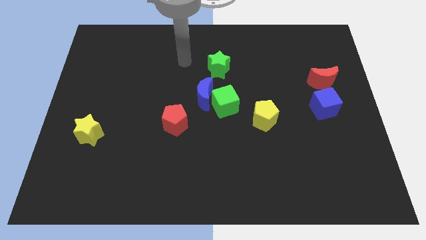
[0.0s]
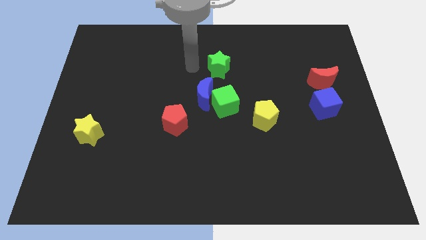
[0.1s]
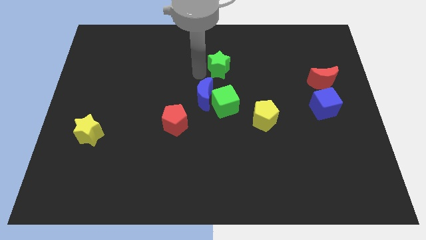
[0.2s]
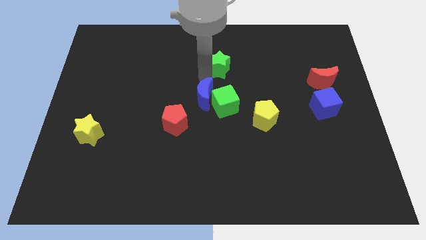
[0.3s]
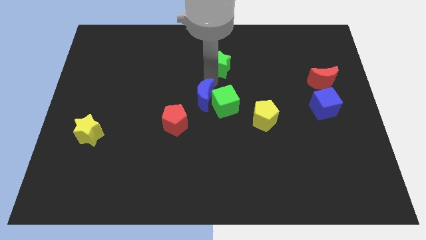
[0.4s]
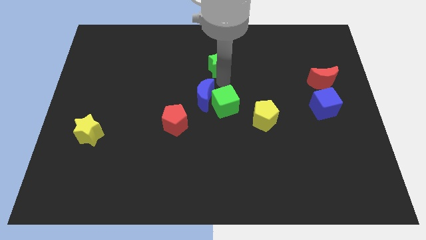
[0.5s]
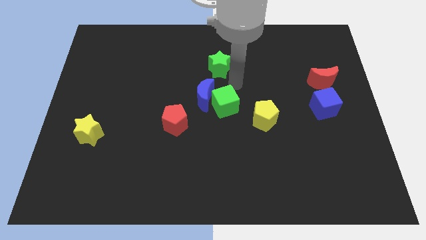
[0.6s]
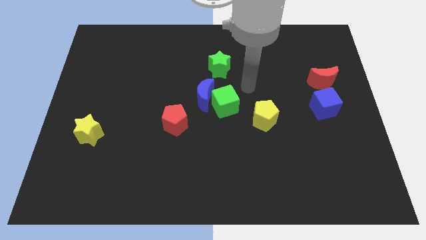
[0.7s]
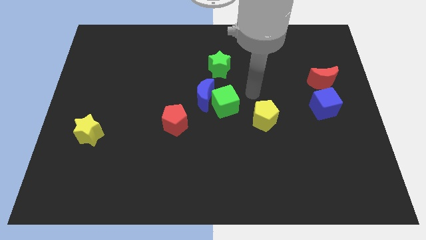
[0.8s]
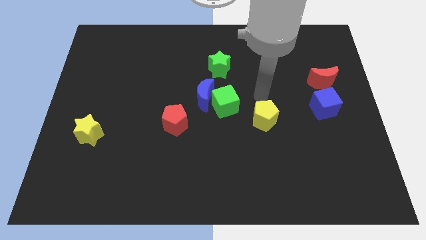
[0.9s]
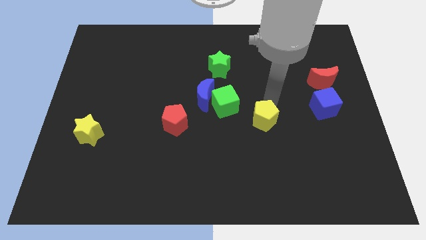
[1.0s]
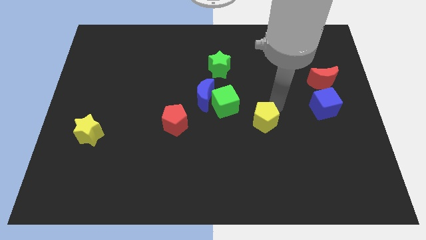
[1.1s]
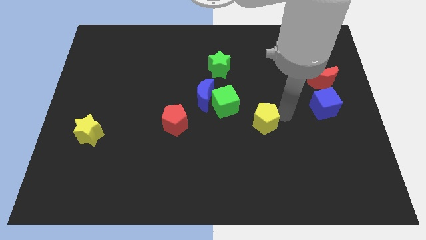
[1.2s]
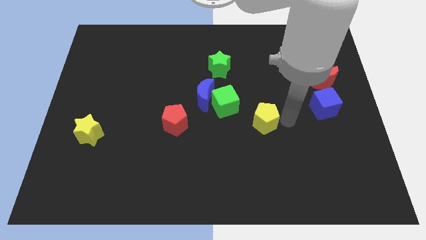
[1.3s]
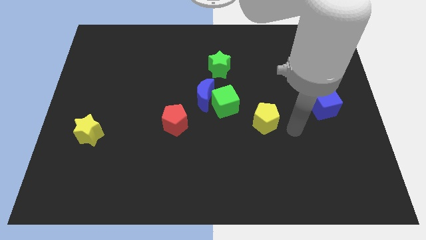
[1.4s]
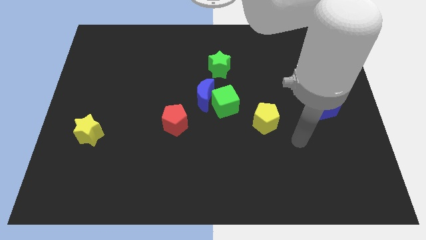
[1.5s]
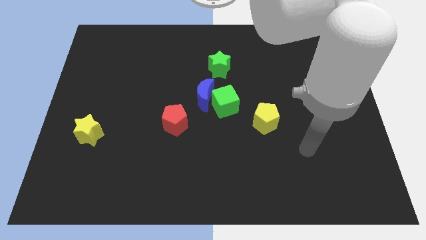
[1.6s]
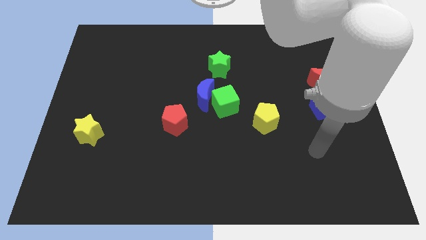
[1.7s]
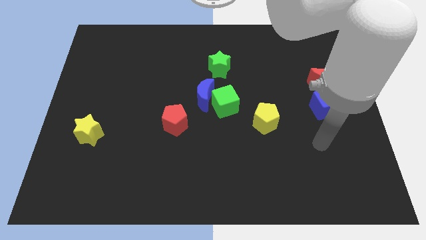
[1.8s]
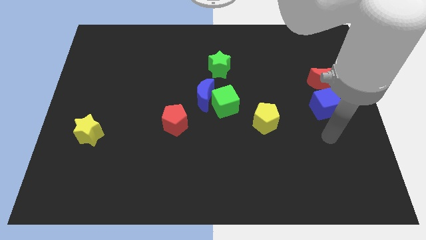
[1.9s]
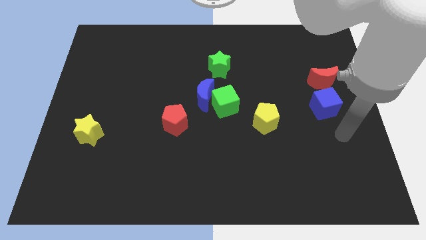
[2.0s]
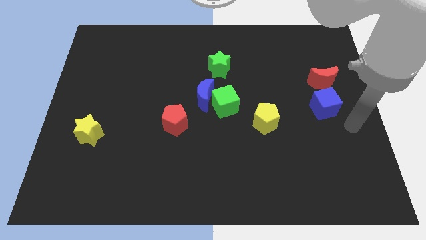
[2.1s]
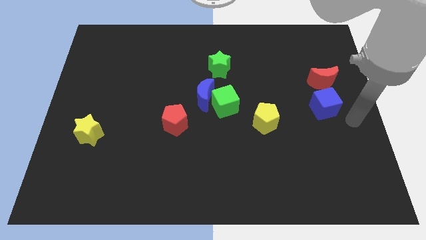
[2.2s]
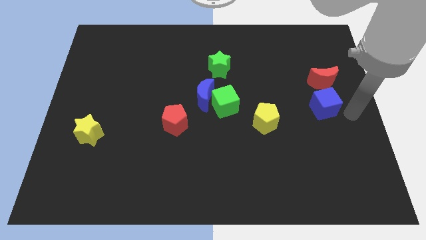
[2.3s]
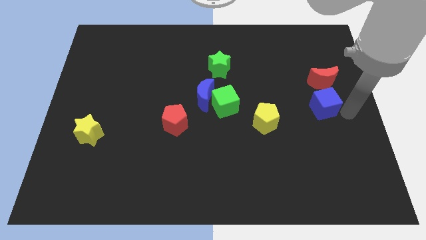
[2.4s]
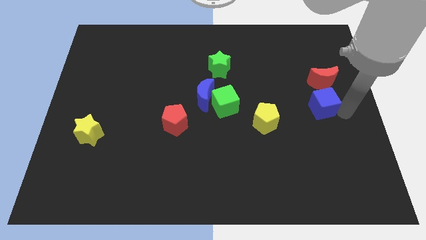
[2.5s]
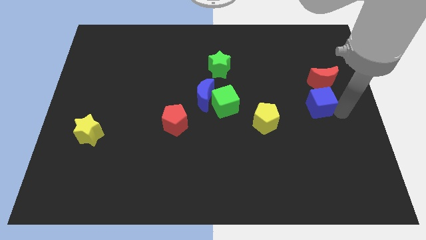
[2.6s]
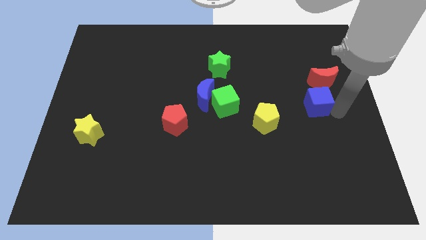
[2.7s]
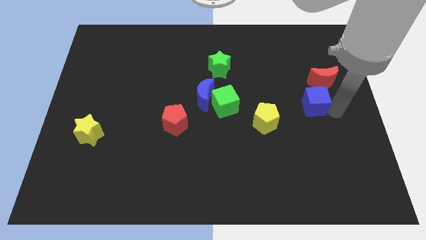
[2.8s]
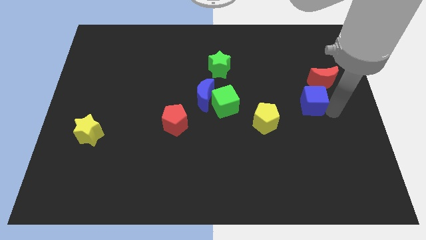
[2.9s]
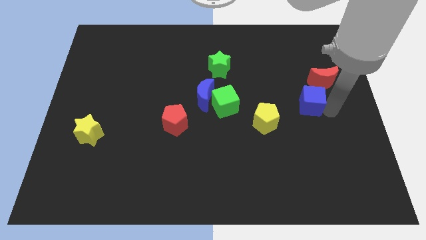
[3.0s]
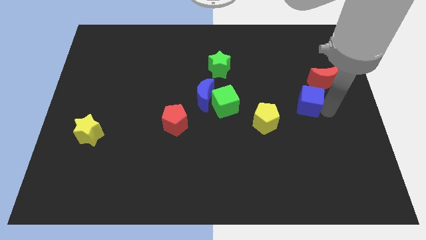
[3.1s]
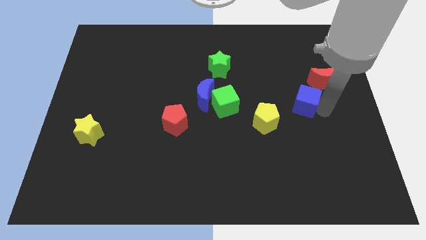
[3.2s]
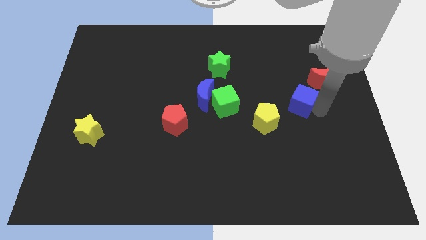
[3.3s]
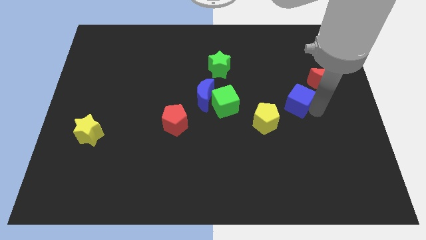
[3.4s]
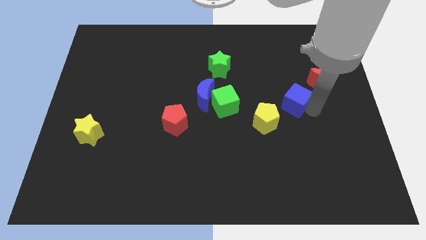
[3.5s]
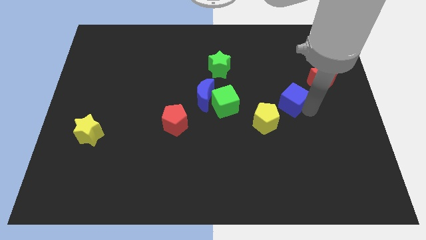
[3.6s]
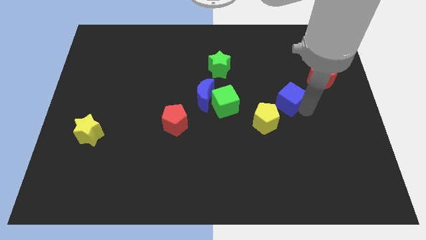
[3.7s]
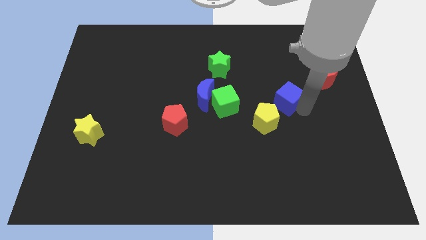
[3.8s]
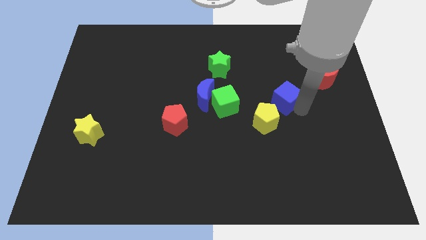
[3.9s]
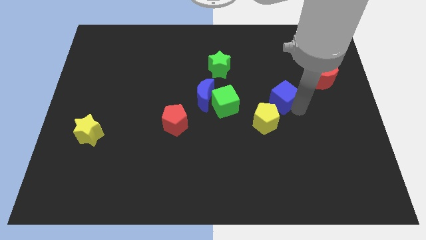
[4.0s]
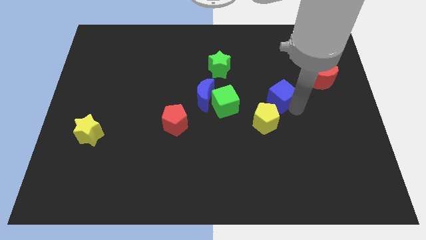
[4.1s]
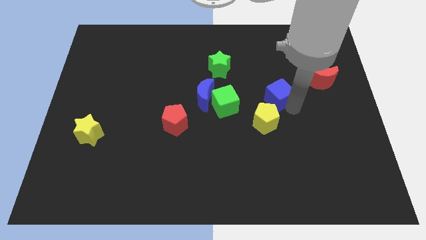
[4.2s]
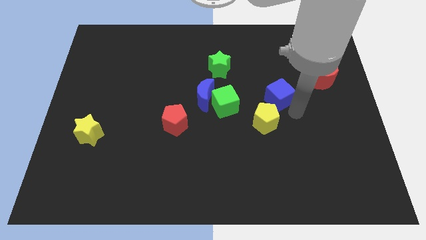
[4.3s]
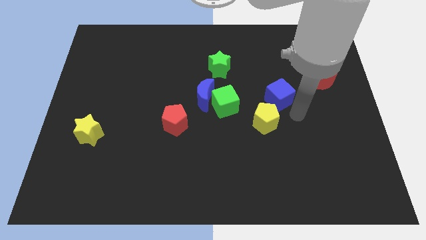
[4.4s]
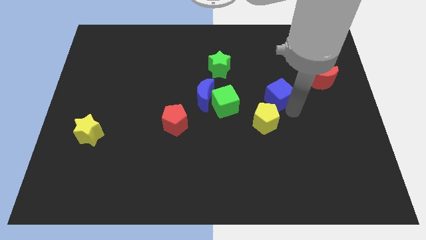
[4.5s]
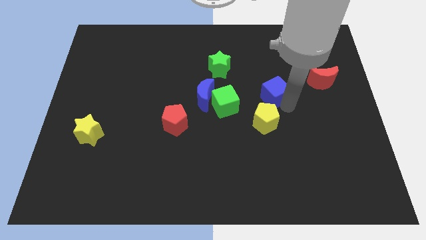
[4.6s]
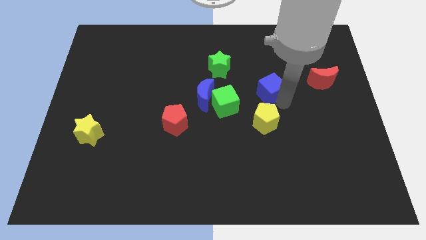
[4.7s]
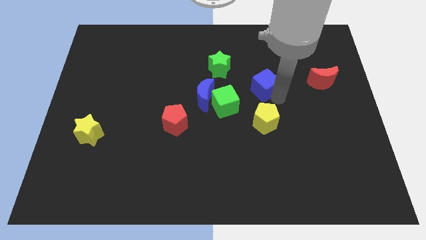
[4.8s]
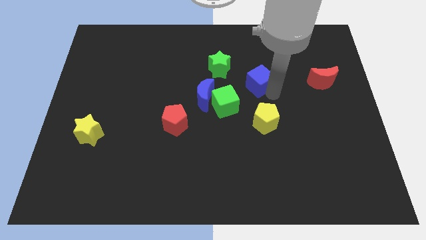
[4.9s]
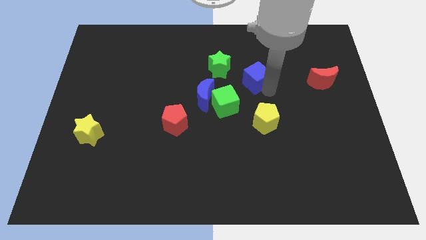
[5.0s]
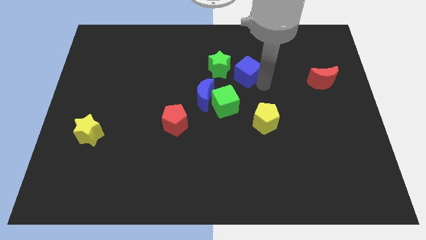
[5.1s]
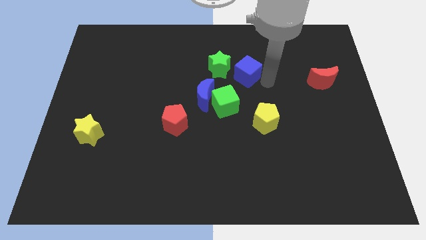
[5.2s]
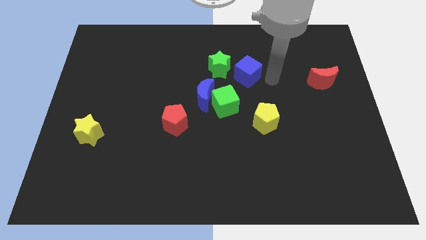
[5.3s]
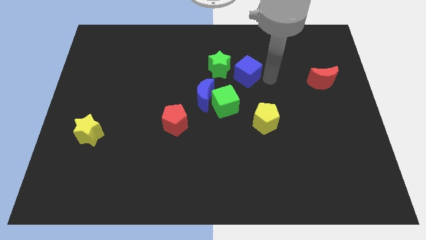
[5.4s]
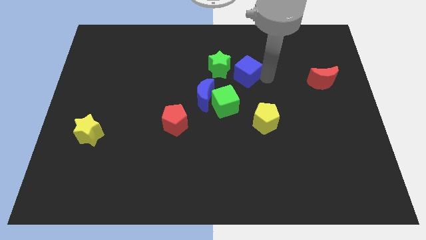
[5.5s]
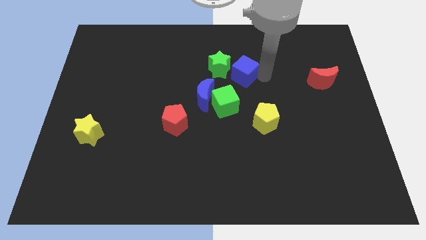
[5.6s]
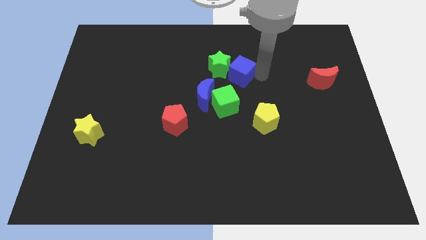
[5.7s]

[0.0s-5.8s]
put the blue cube next to the green star

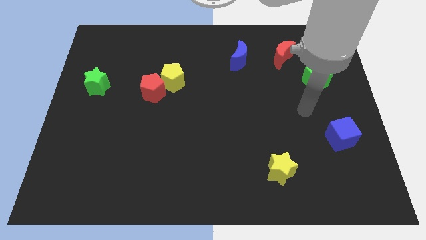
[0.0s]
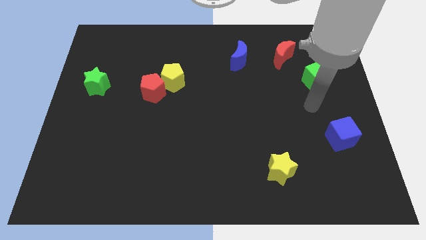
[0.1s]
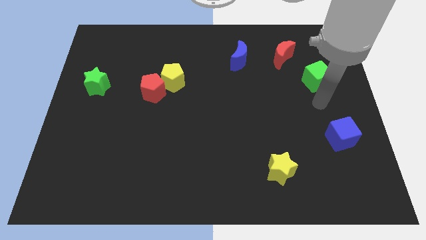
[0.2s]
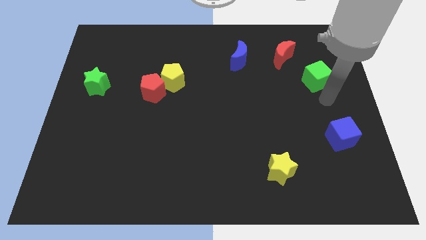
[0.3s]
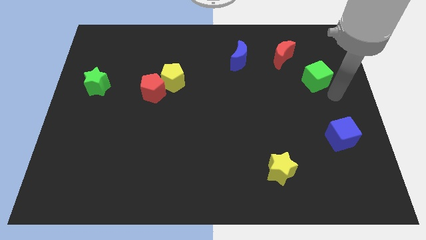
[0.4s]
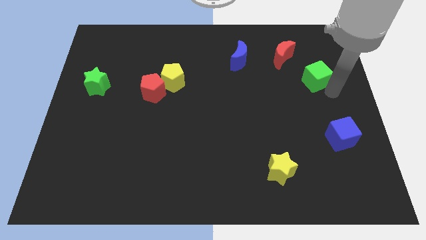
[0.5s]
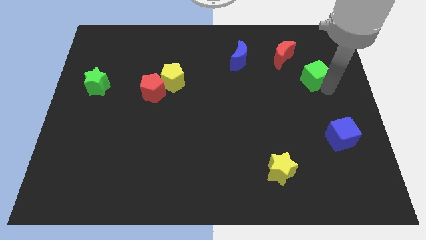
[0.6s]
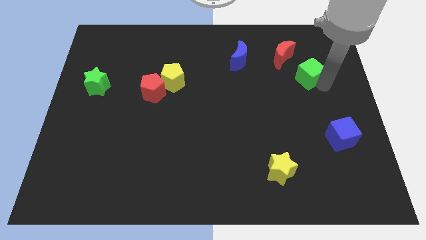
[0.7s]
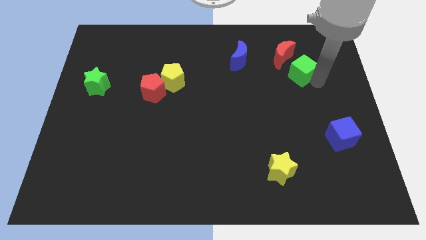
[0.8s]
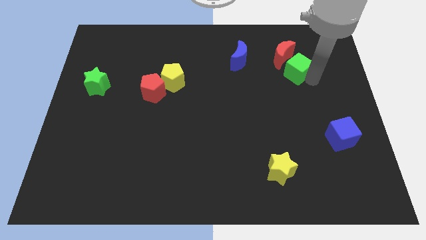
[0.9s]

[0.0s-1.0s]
put the green cube close to the red moon

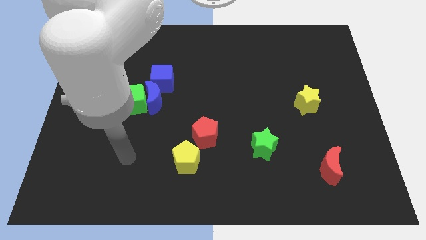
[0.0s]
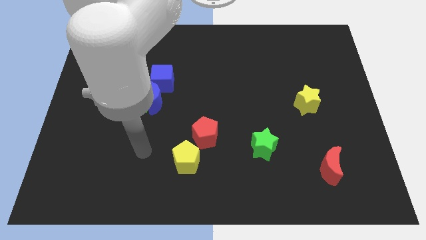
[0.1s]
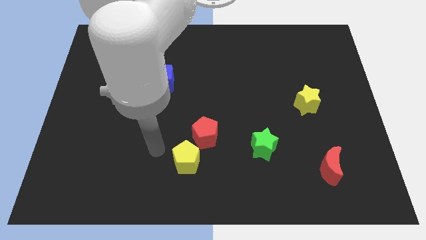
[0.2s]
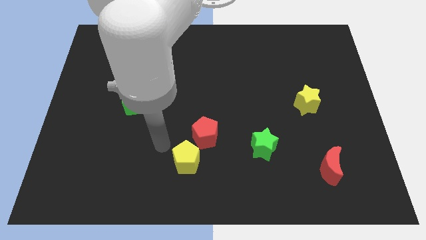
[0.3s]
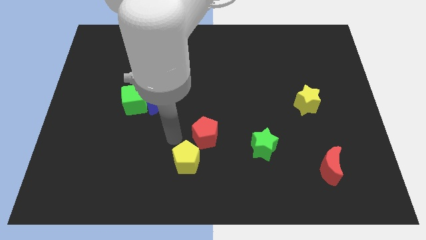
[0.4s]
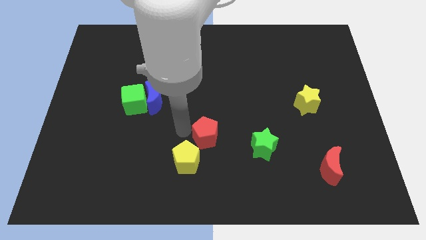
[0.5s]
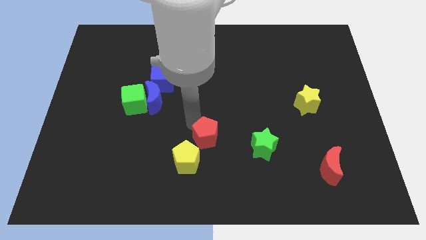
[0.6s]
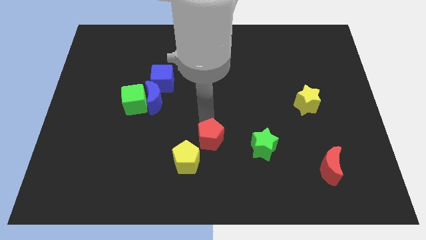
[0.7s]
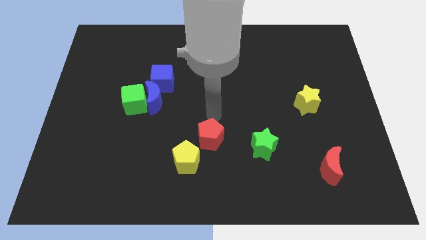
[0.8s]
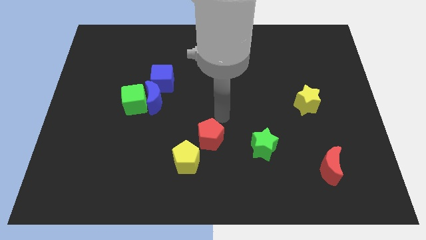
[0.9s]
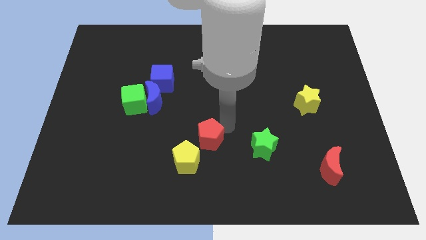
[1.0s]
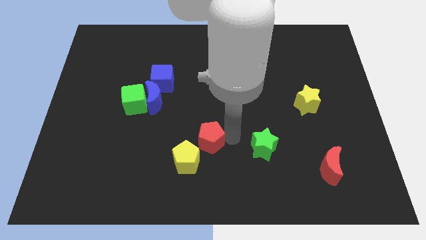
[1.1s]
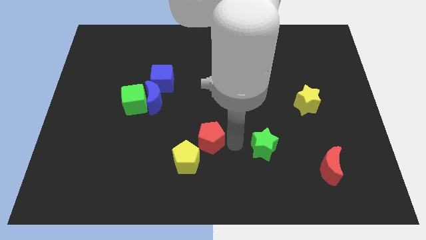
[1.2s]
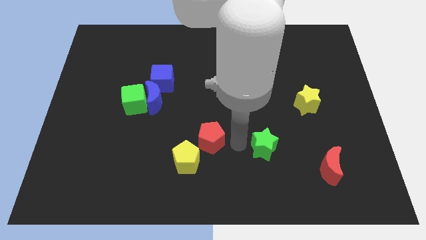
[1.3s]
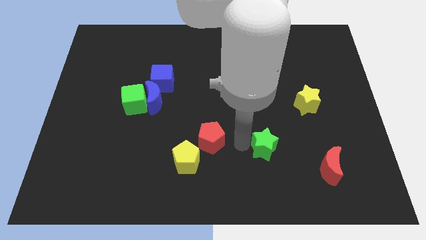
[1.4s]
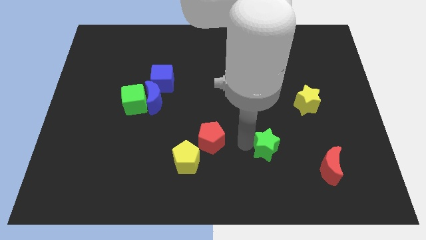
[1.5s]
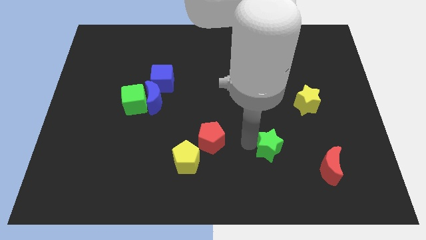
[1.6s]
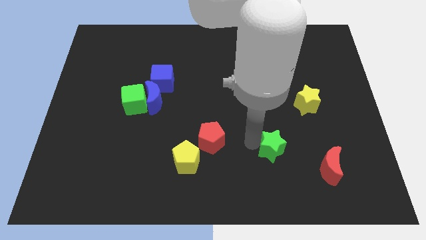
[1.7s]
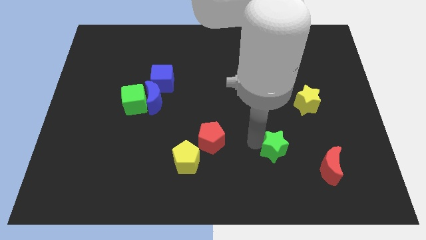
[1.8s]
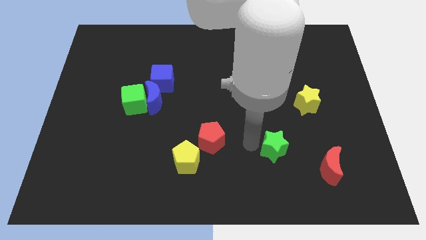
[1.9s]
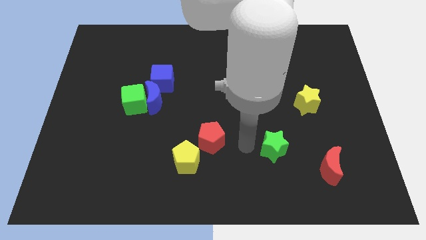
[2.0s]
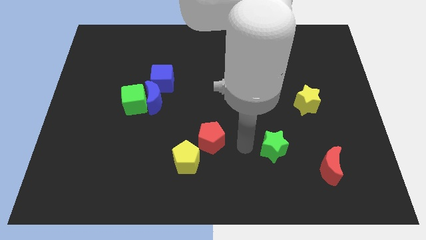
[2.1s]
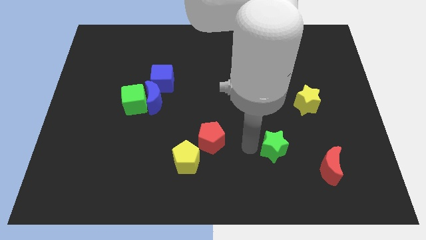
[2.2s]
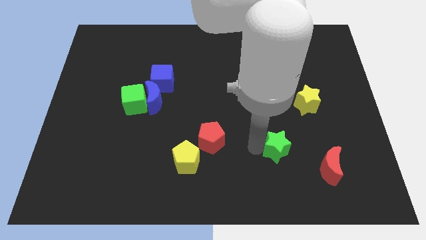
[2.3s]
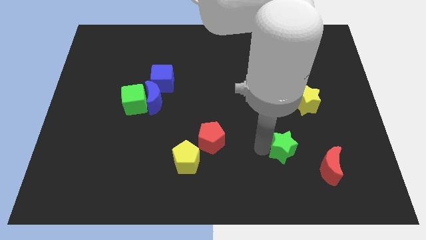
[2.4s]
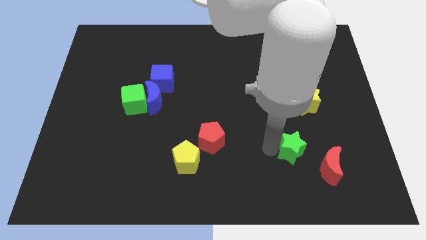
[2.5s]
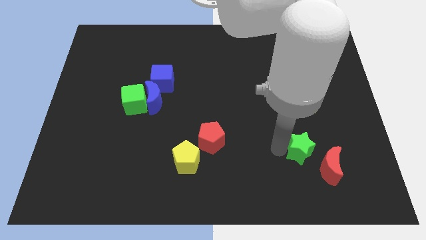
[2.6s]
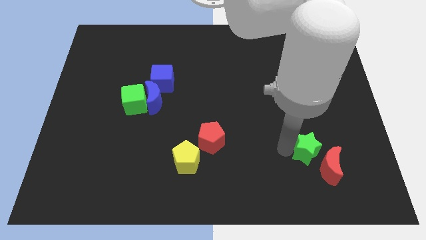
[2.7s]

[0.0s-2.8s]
put the green star next to the red moon
